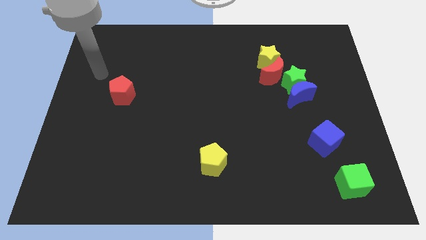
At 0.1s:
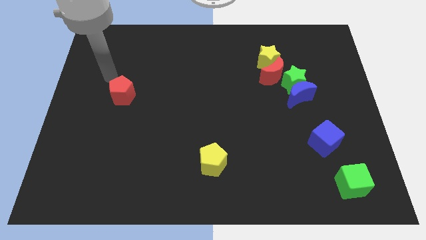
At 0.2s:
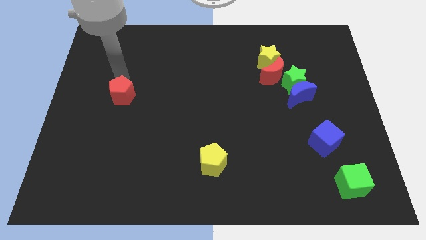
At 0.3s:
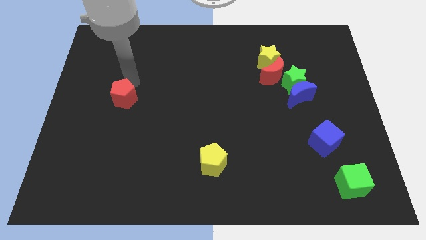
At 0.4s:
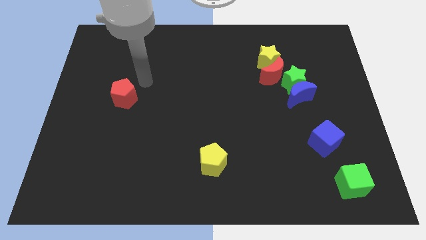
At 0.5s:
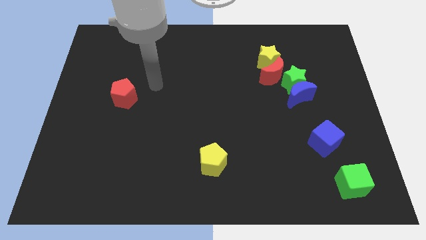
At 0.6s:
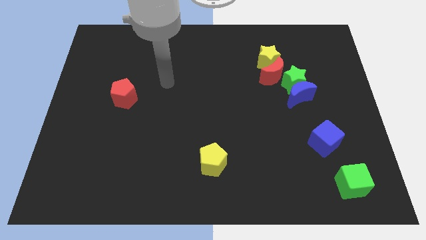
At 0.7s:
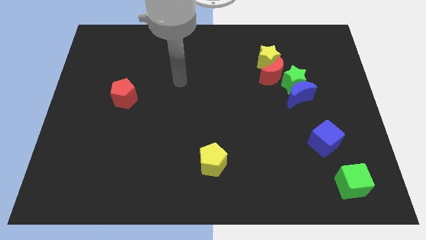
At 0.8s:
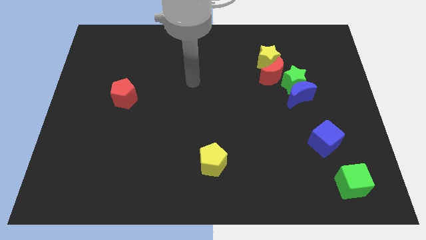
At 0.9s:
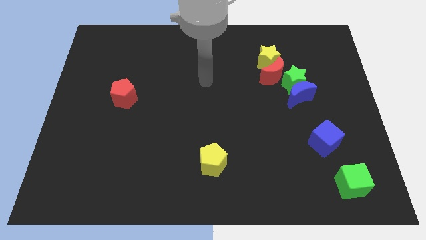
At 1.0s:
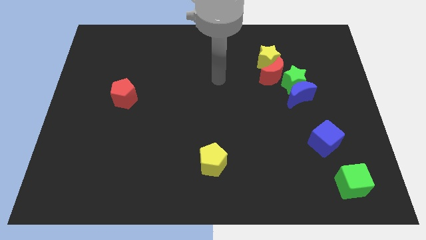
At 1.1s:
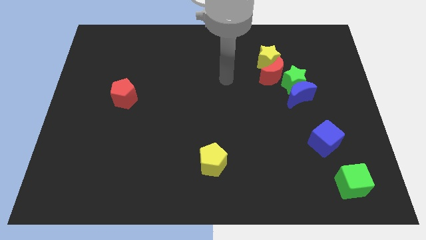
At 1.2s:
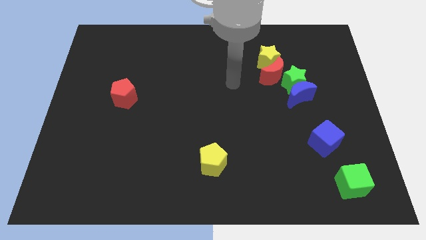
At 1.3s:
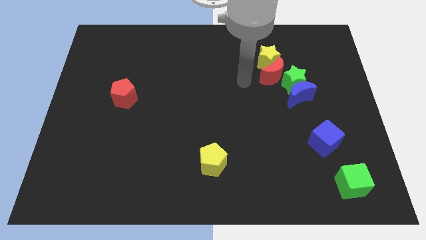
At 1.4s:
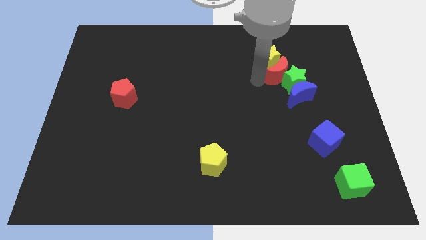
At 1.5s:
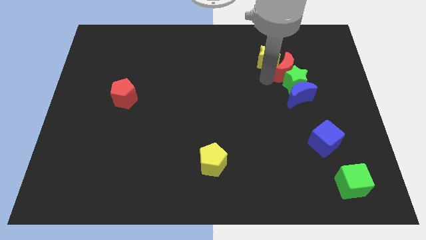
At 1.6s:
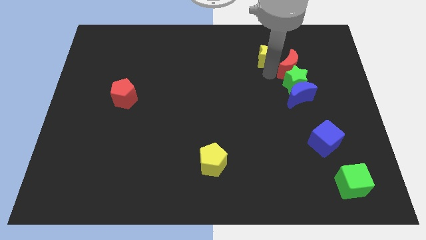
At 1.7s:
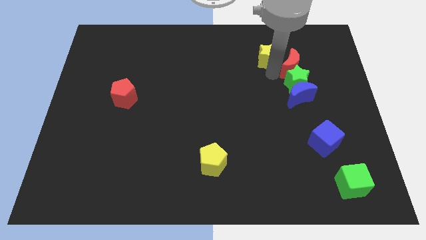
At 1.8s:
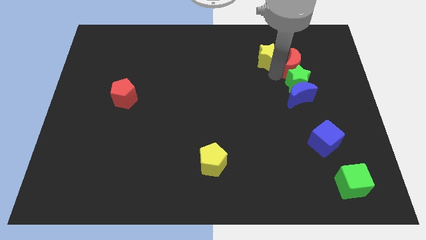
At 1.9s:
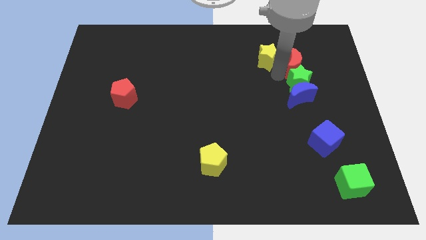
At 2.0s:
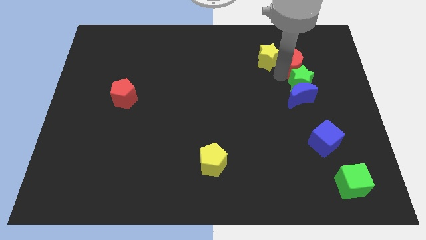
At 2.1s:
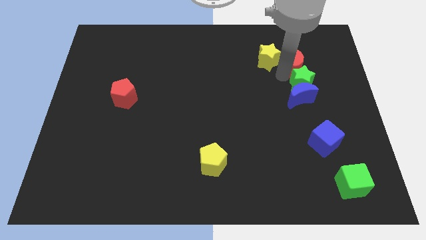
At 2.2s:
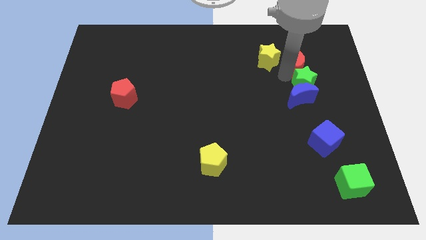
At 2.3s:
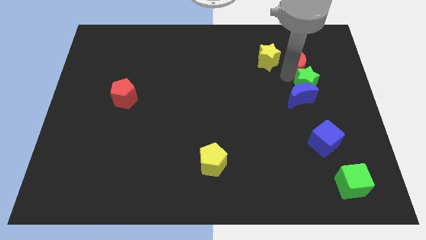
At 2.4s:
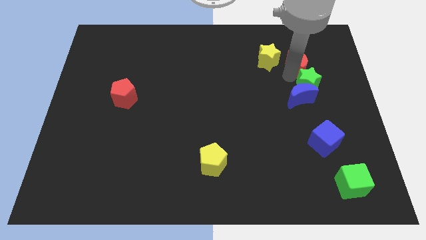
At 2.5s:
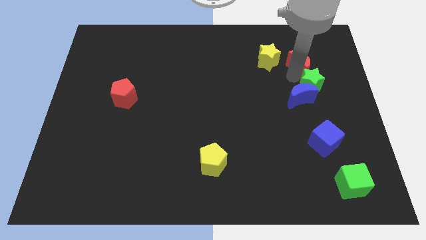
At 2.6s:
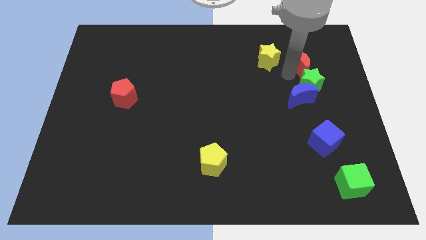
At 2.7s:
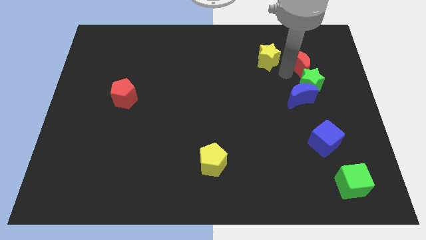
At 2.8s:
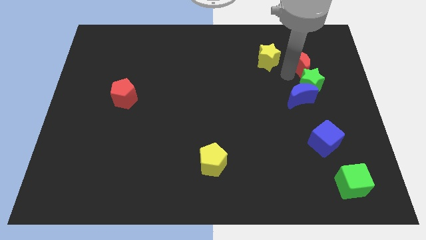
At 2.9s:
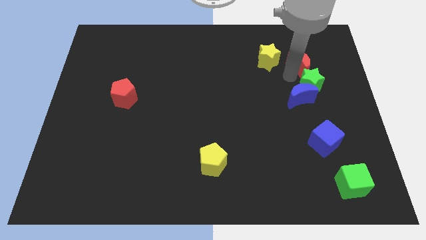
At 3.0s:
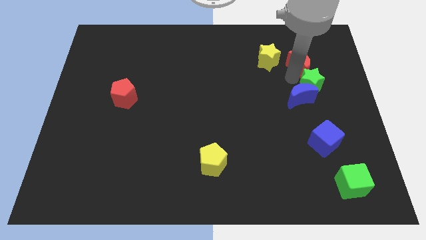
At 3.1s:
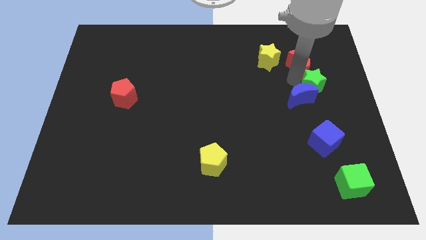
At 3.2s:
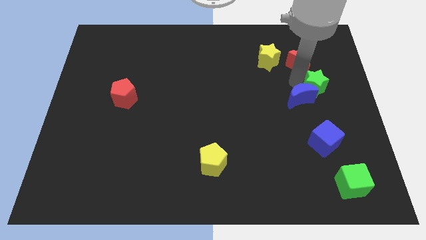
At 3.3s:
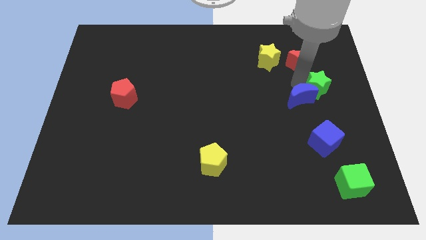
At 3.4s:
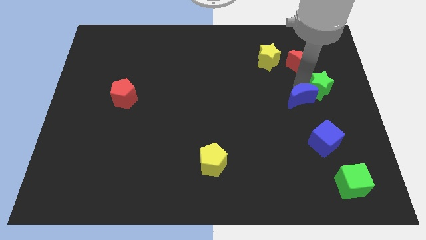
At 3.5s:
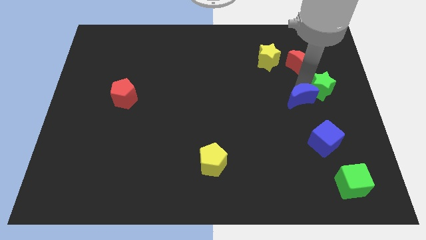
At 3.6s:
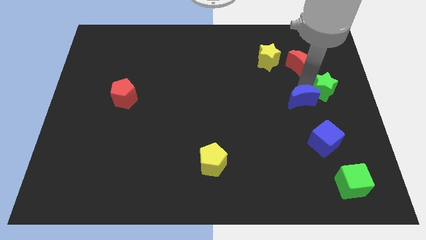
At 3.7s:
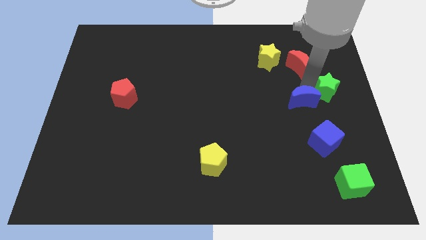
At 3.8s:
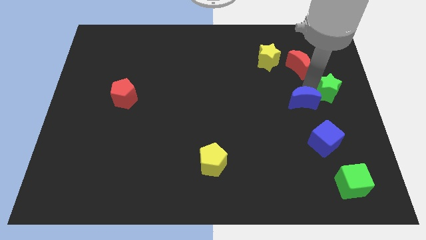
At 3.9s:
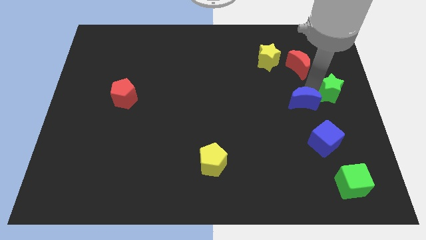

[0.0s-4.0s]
pull the green star apart from the group of blocks

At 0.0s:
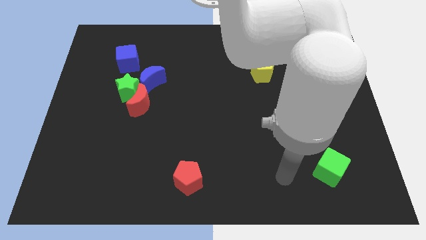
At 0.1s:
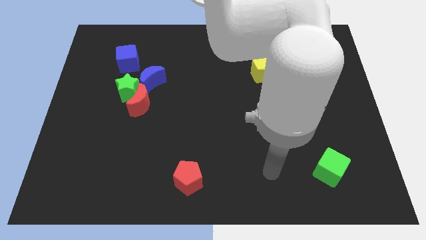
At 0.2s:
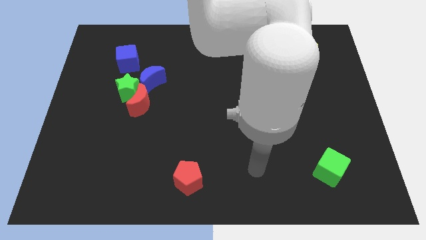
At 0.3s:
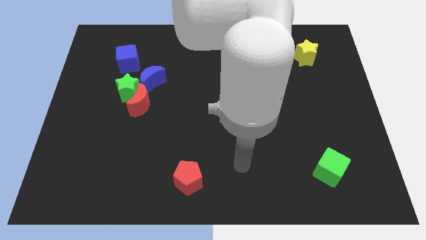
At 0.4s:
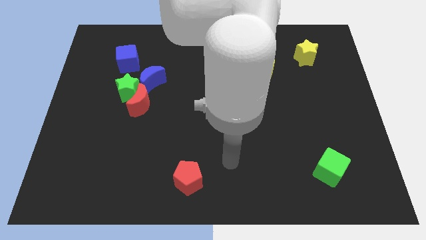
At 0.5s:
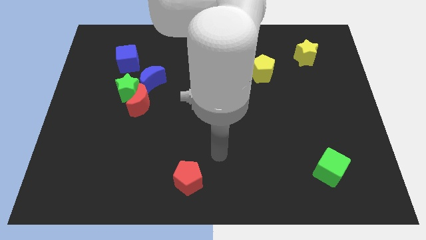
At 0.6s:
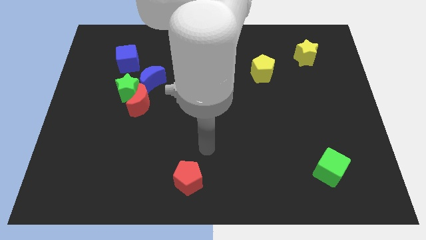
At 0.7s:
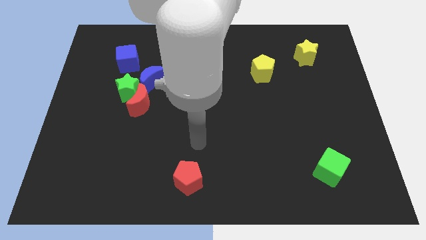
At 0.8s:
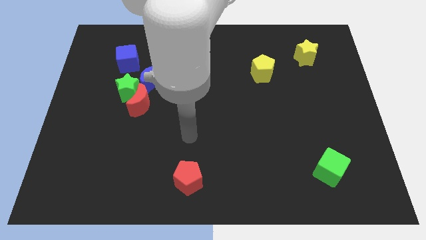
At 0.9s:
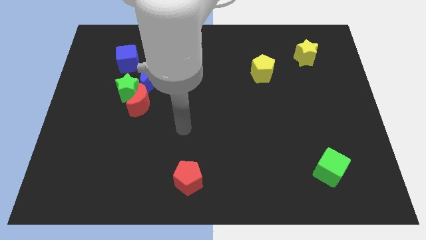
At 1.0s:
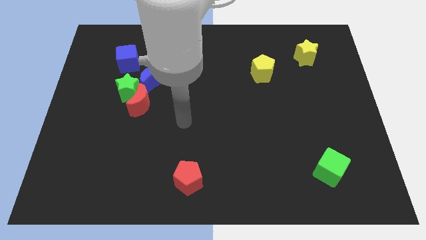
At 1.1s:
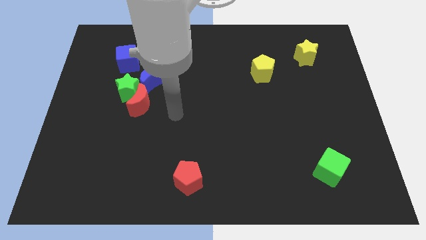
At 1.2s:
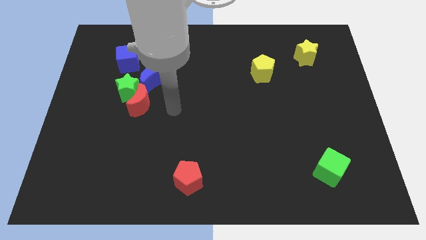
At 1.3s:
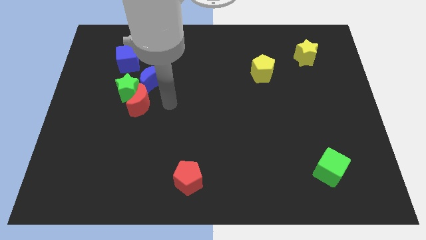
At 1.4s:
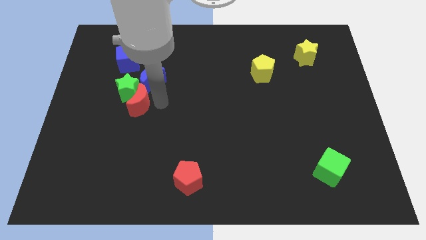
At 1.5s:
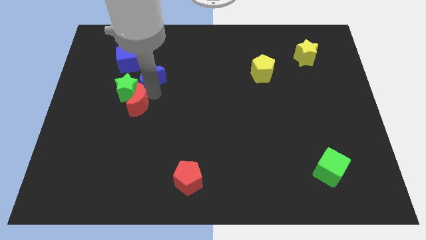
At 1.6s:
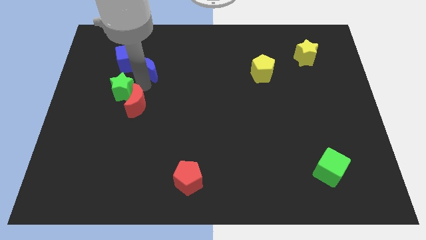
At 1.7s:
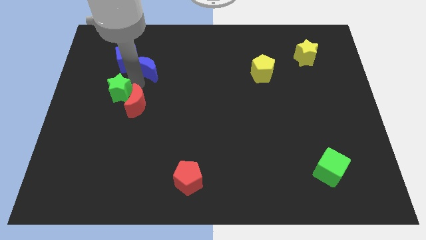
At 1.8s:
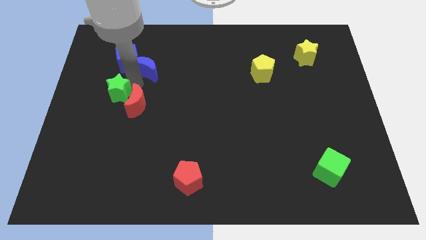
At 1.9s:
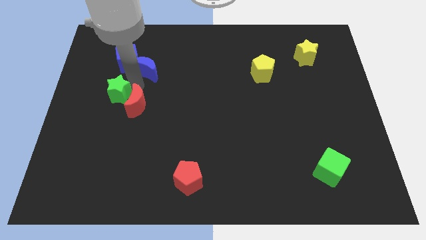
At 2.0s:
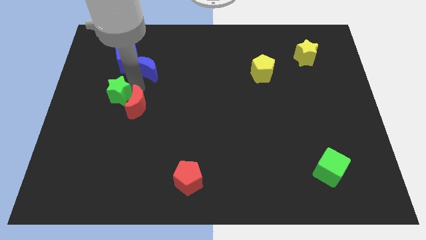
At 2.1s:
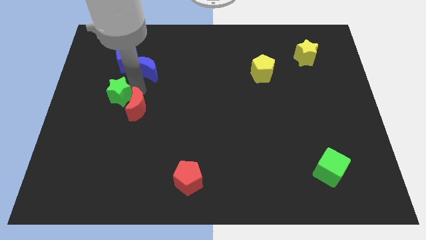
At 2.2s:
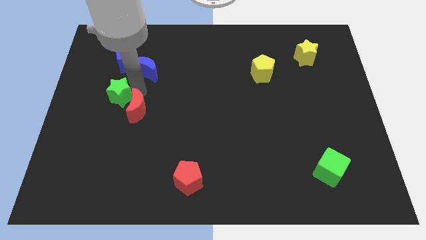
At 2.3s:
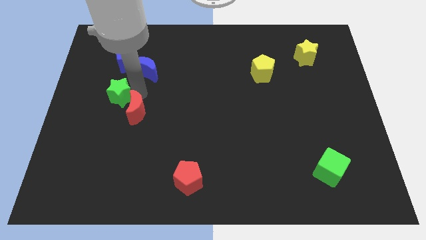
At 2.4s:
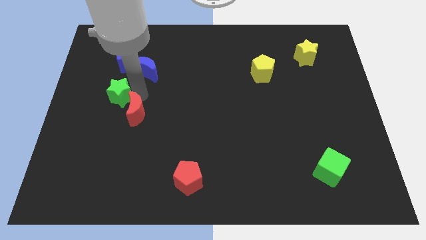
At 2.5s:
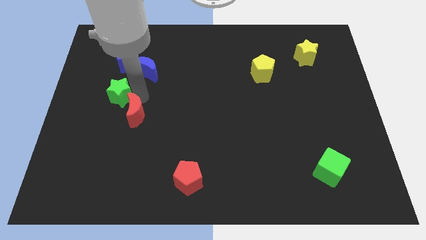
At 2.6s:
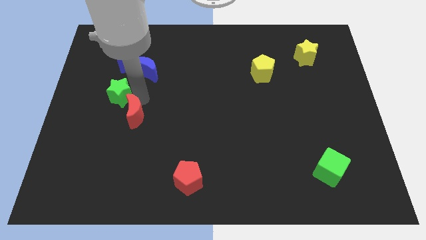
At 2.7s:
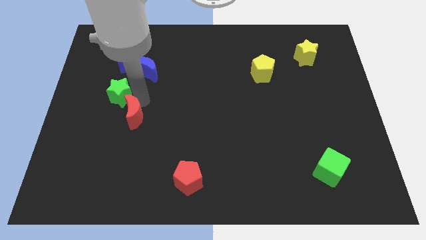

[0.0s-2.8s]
pull the red moon apart from the green star and blue moon

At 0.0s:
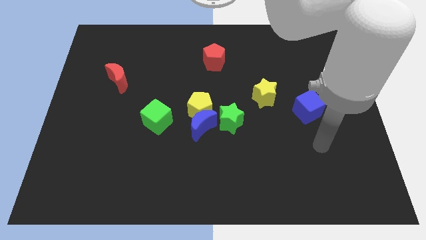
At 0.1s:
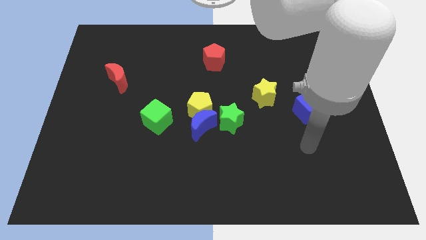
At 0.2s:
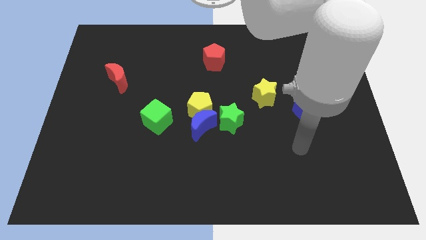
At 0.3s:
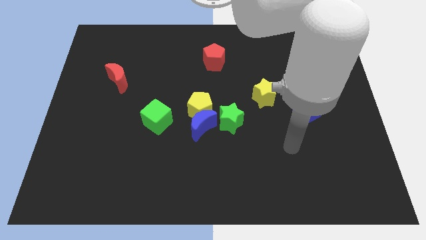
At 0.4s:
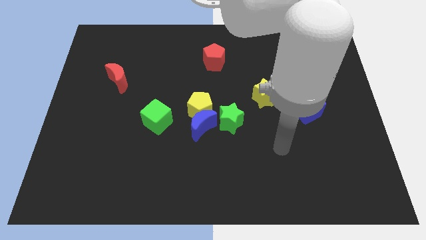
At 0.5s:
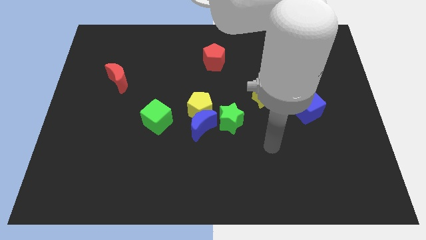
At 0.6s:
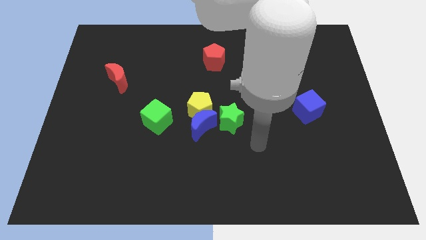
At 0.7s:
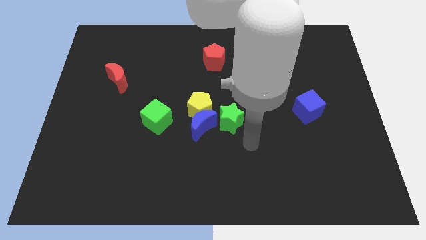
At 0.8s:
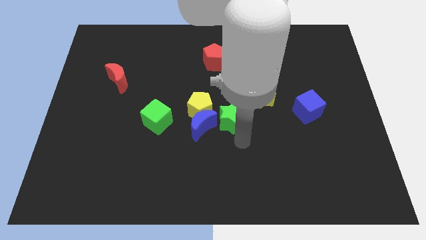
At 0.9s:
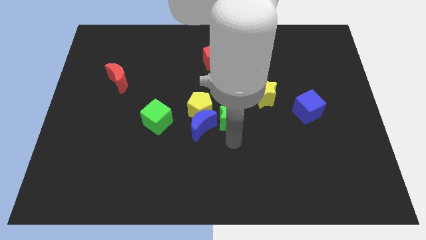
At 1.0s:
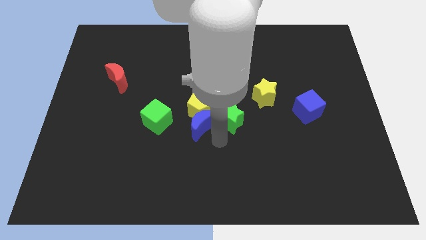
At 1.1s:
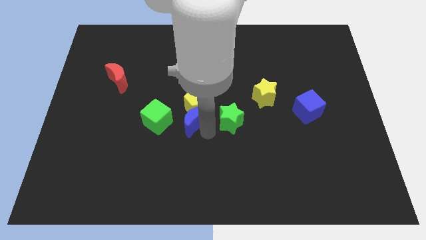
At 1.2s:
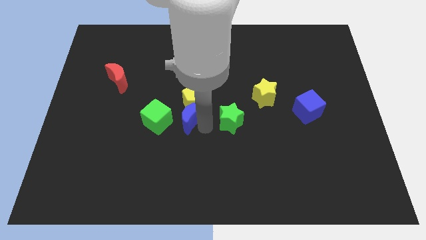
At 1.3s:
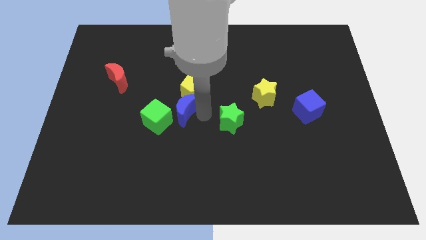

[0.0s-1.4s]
move the green star away from the blue moon and yellow pentagon

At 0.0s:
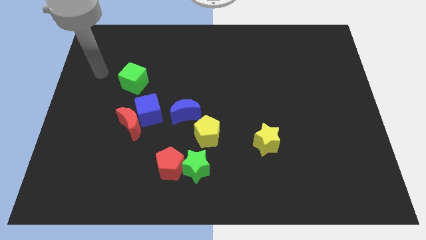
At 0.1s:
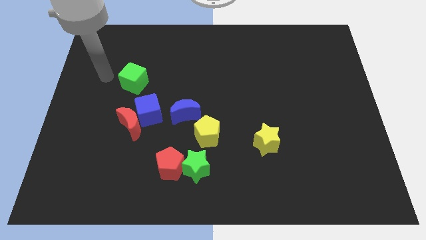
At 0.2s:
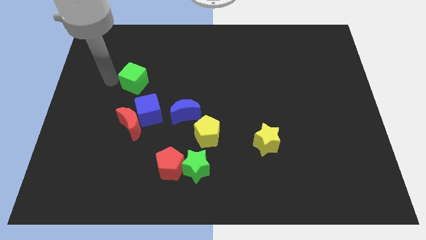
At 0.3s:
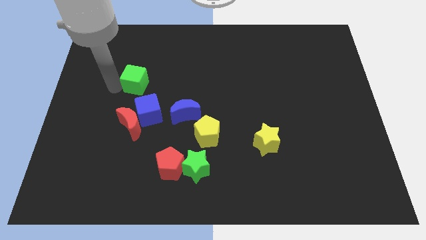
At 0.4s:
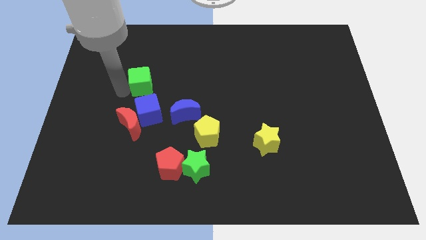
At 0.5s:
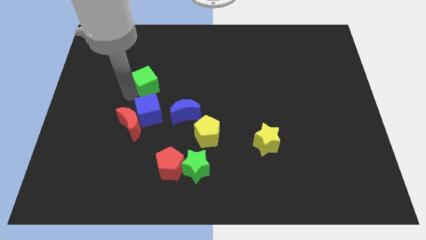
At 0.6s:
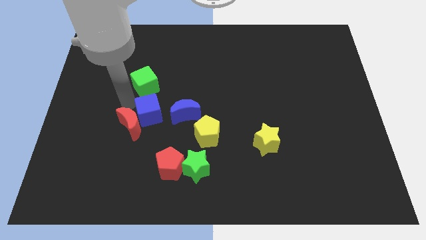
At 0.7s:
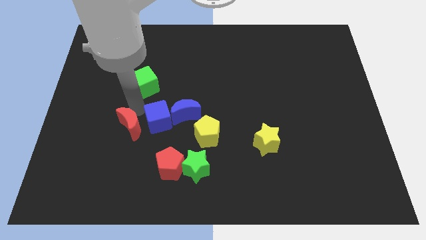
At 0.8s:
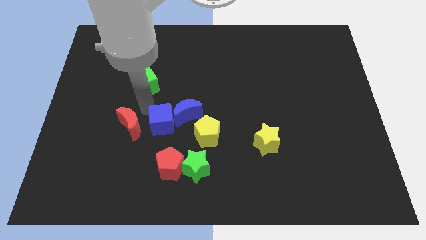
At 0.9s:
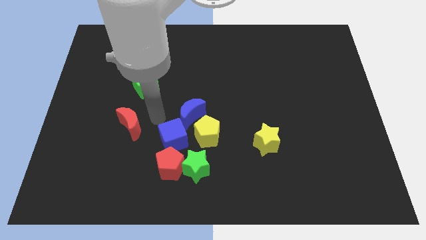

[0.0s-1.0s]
move the red moon away from the blue cube

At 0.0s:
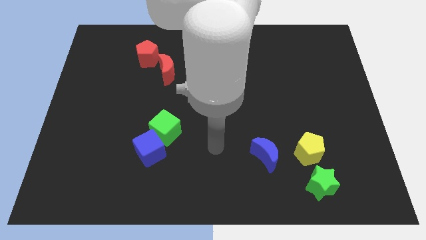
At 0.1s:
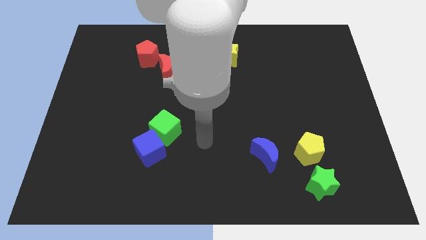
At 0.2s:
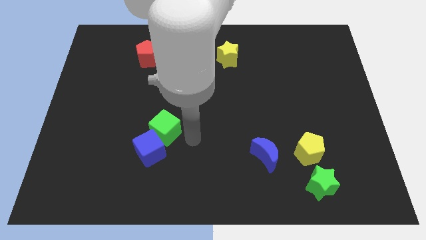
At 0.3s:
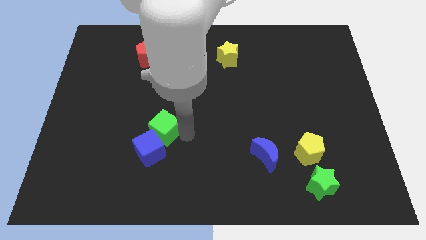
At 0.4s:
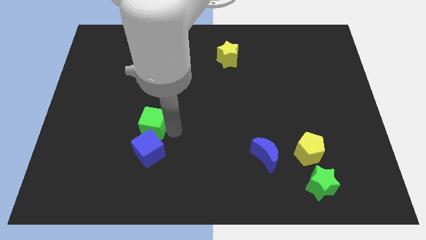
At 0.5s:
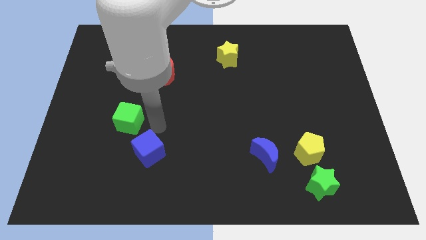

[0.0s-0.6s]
move the blue cube away from the green cube
